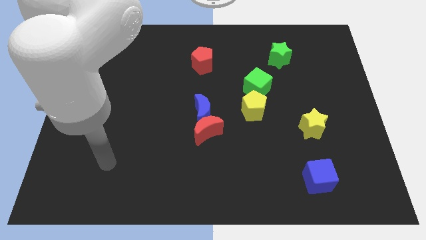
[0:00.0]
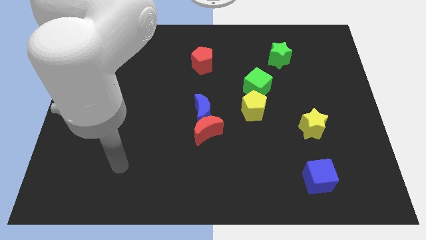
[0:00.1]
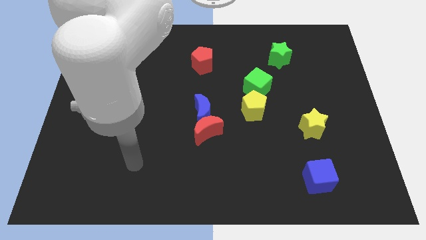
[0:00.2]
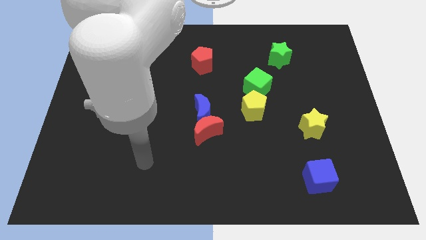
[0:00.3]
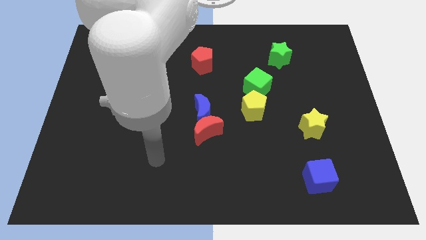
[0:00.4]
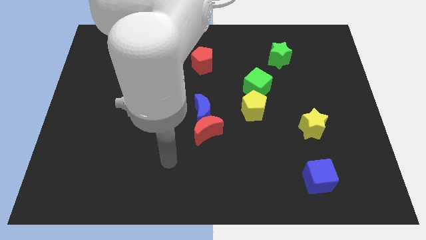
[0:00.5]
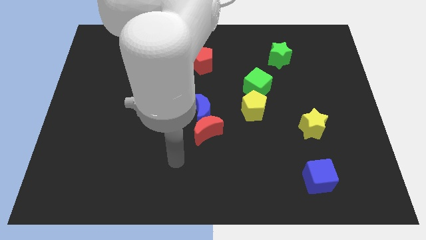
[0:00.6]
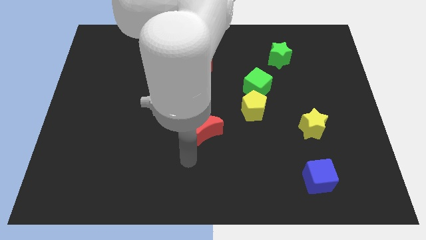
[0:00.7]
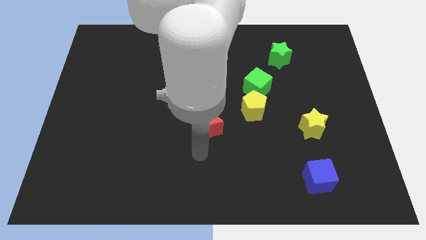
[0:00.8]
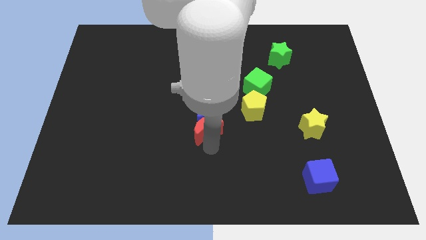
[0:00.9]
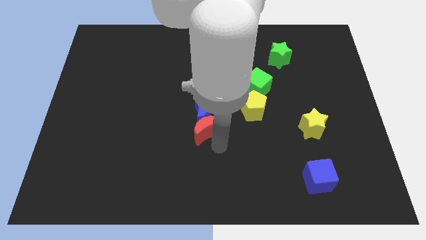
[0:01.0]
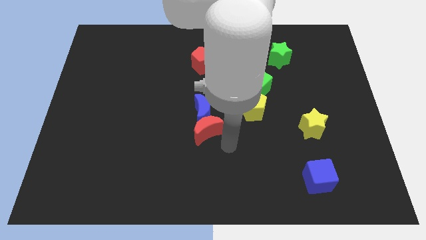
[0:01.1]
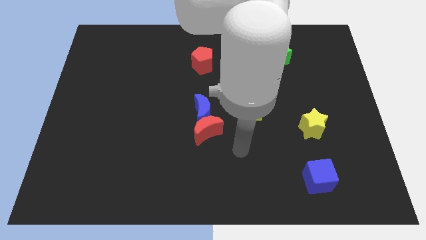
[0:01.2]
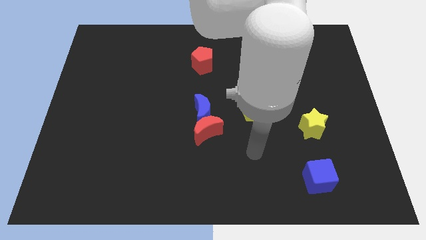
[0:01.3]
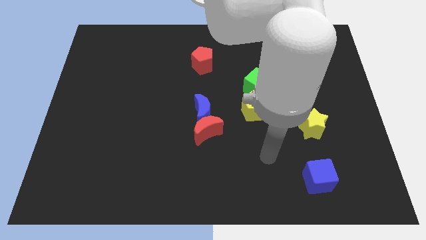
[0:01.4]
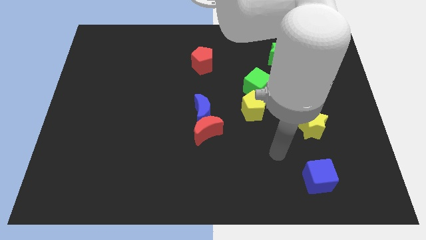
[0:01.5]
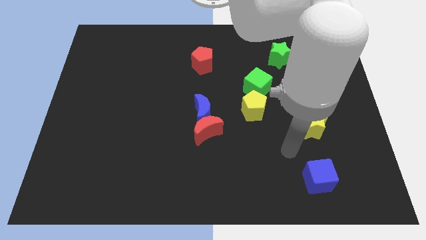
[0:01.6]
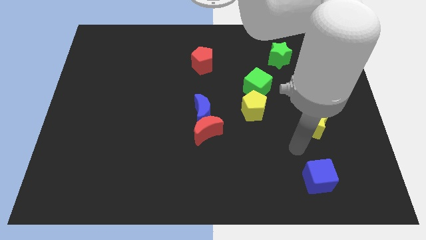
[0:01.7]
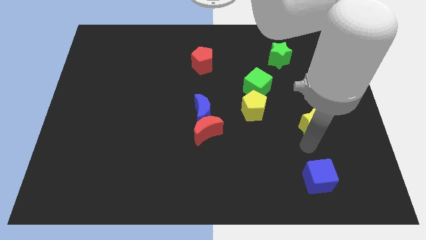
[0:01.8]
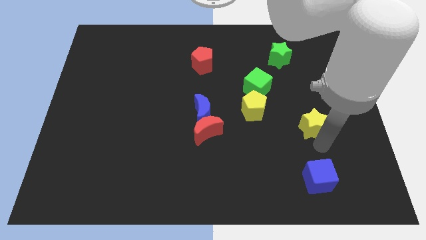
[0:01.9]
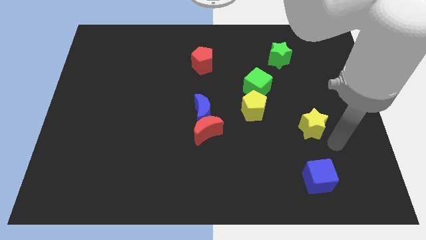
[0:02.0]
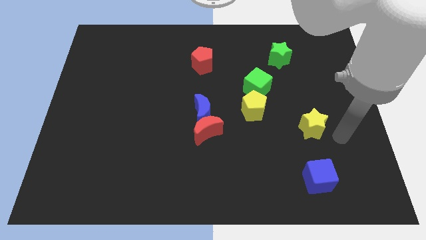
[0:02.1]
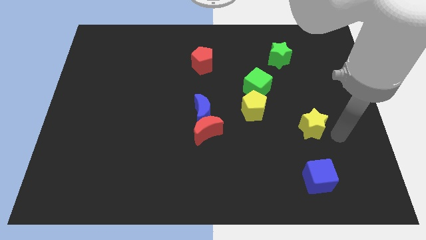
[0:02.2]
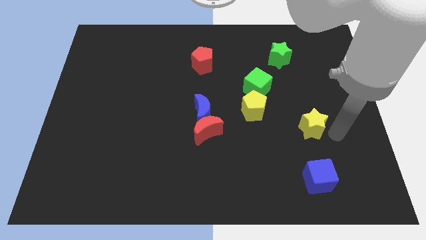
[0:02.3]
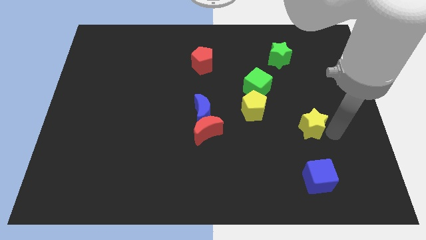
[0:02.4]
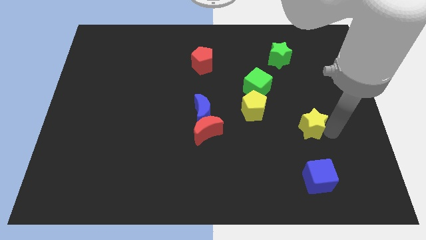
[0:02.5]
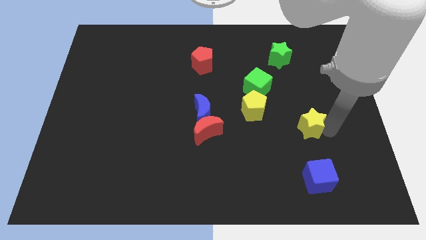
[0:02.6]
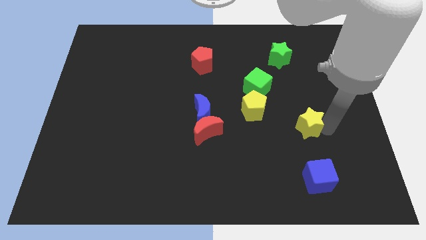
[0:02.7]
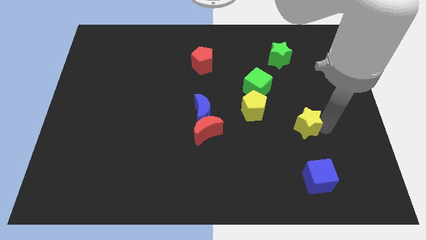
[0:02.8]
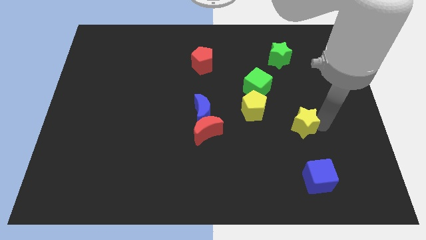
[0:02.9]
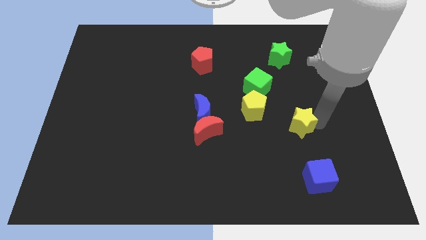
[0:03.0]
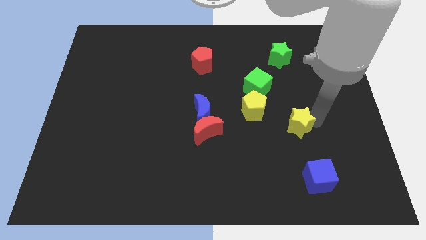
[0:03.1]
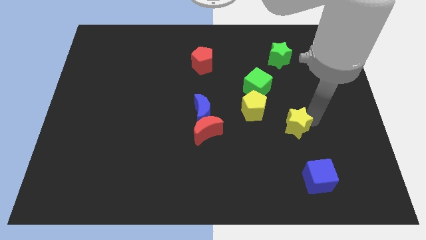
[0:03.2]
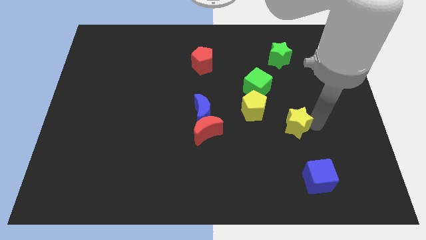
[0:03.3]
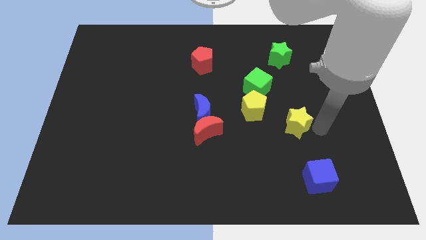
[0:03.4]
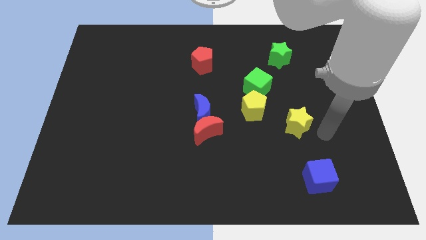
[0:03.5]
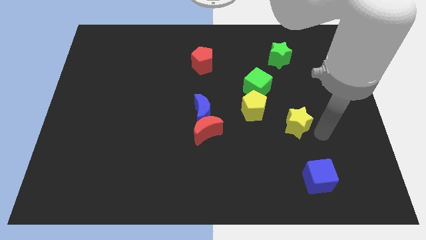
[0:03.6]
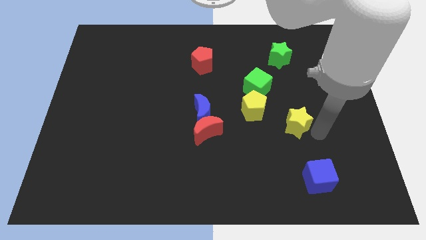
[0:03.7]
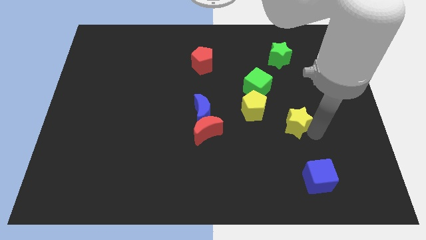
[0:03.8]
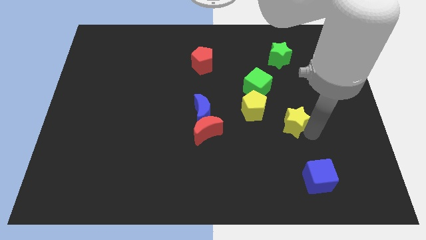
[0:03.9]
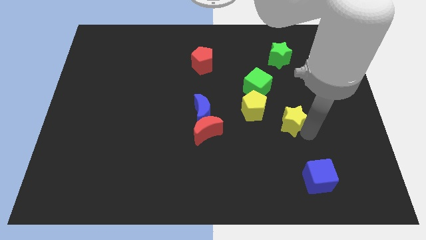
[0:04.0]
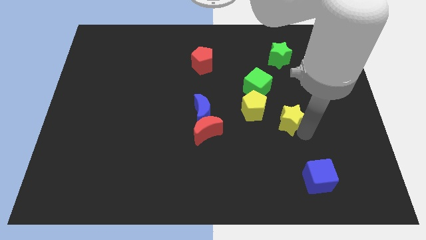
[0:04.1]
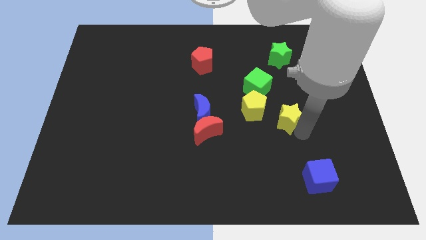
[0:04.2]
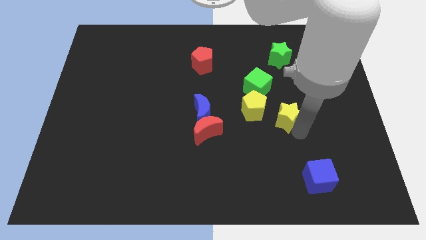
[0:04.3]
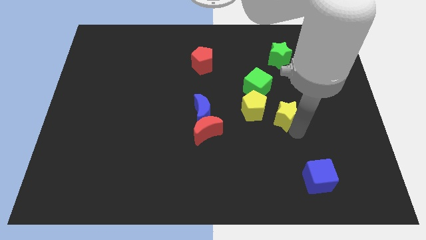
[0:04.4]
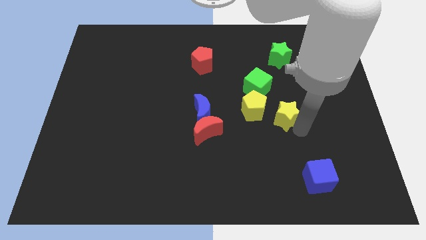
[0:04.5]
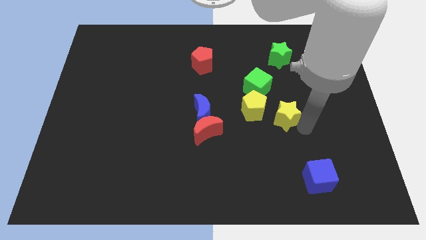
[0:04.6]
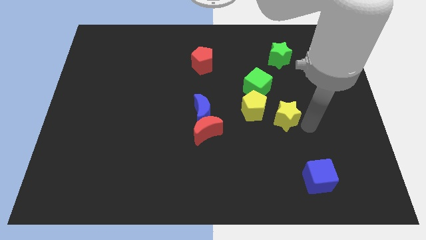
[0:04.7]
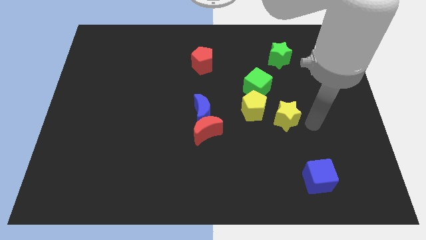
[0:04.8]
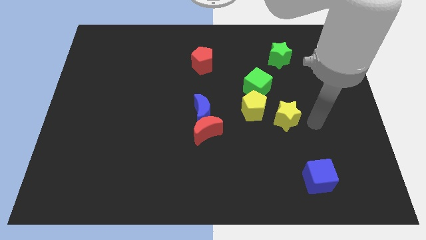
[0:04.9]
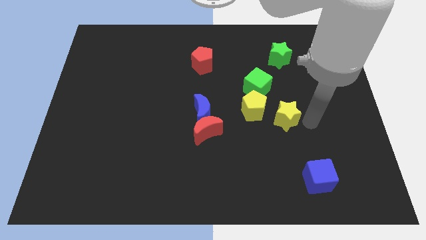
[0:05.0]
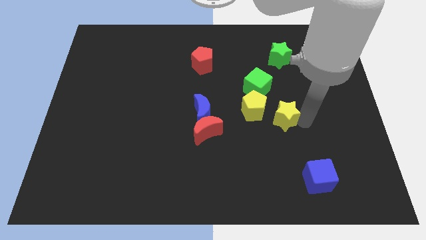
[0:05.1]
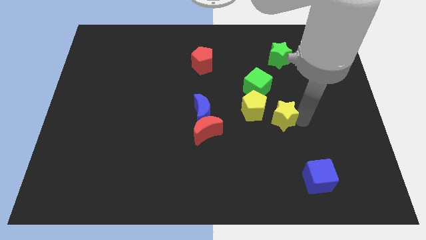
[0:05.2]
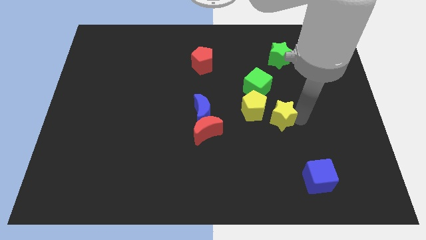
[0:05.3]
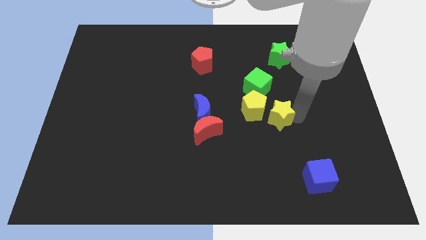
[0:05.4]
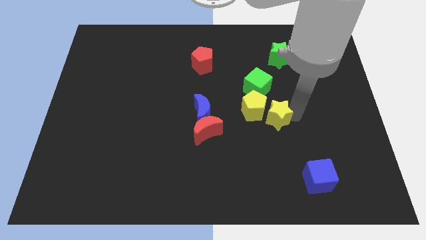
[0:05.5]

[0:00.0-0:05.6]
put the yellow star close to the yellow pentagon

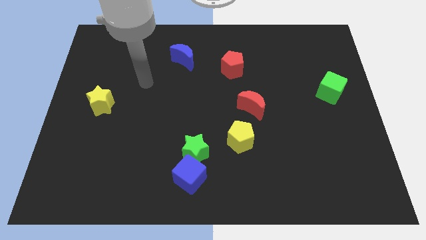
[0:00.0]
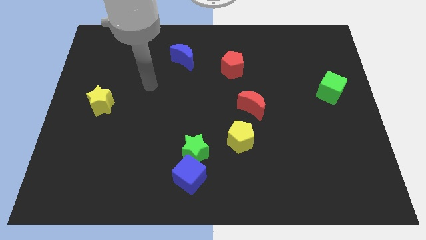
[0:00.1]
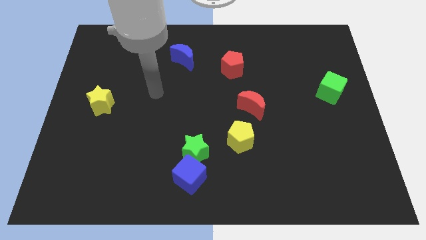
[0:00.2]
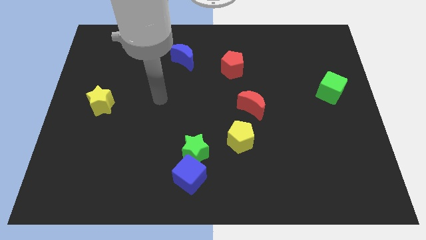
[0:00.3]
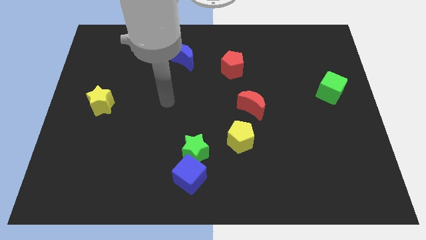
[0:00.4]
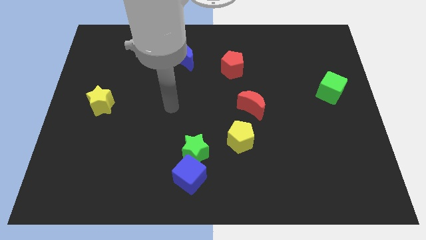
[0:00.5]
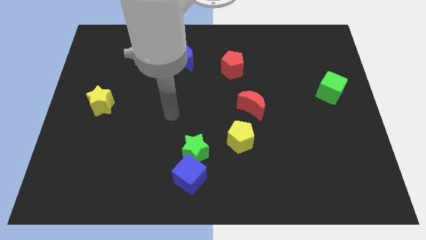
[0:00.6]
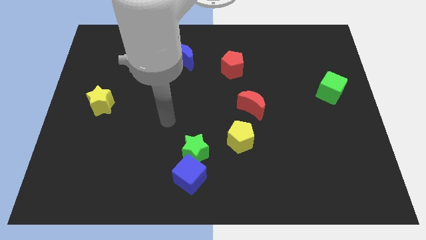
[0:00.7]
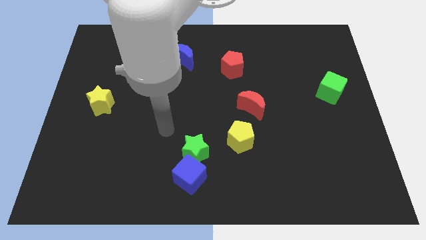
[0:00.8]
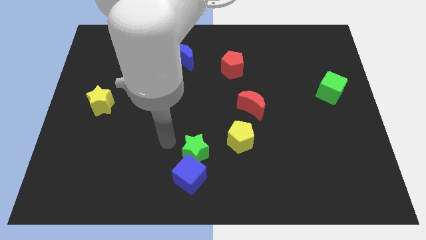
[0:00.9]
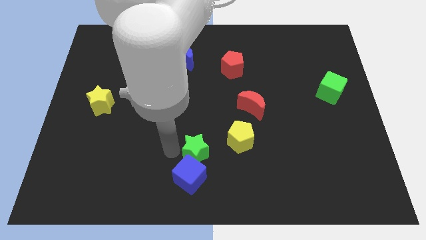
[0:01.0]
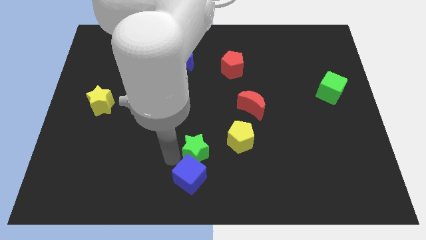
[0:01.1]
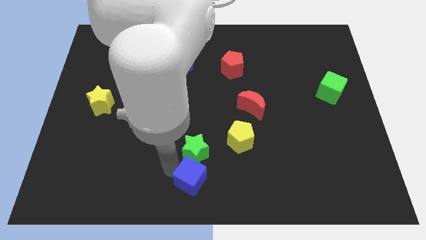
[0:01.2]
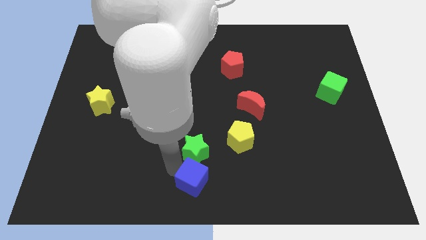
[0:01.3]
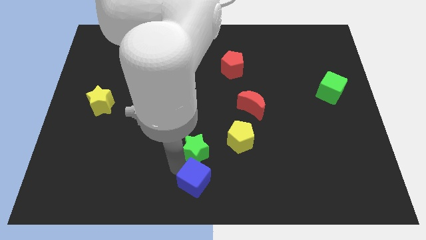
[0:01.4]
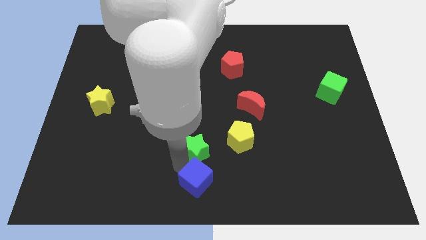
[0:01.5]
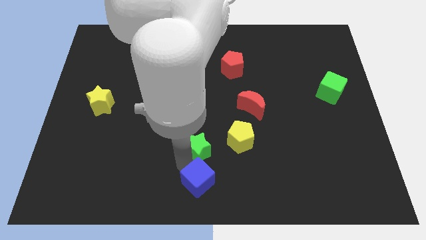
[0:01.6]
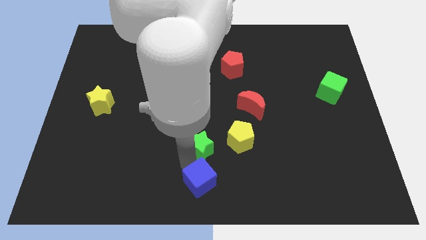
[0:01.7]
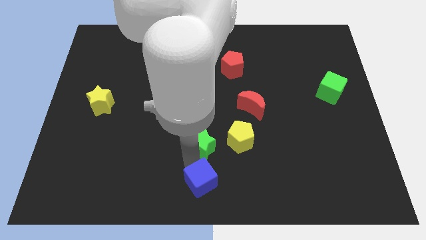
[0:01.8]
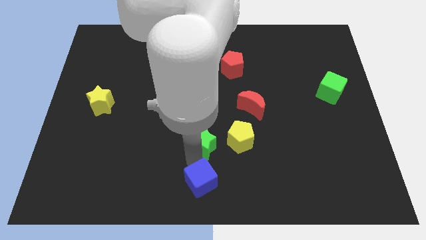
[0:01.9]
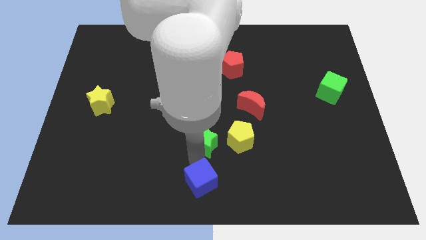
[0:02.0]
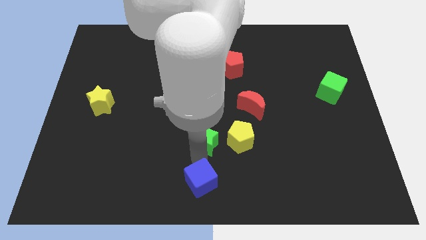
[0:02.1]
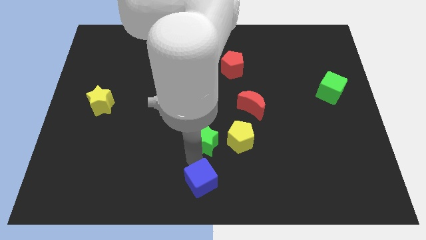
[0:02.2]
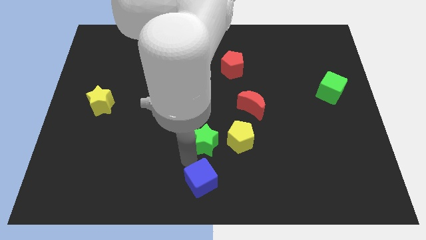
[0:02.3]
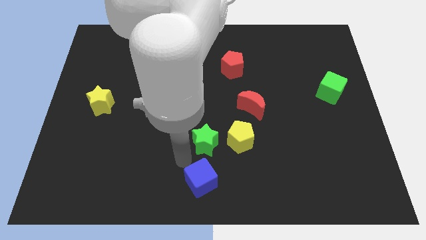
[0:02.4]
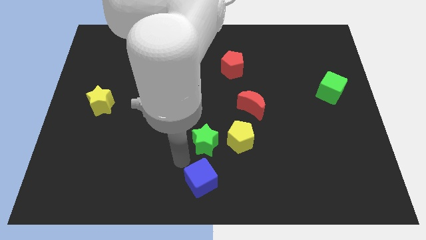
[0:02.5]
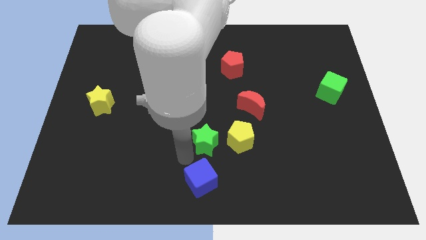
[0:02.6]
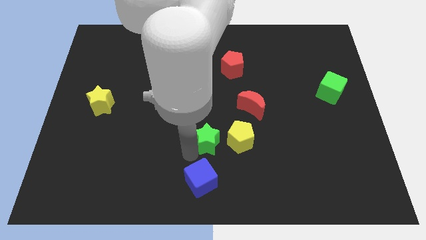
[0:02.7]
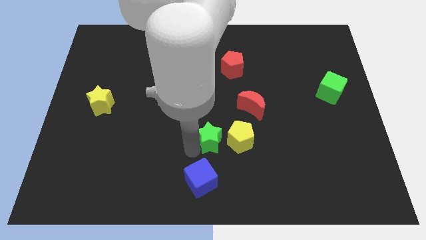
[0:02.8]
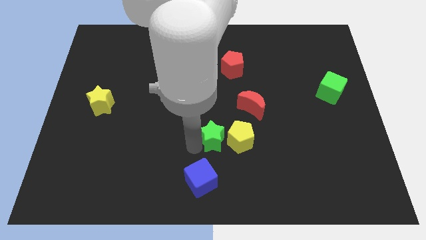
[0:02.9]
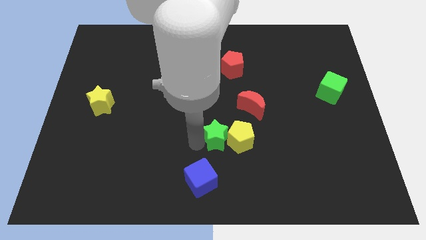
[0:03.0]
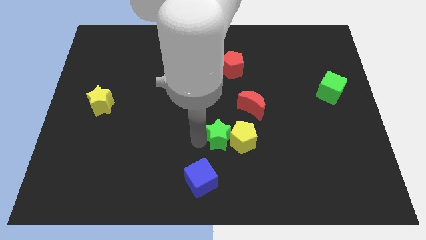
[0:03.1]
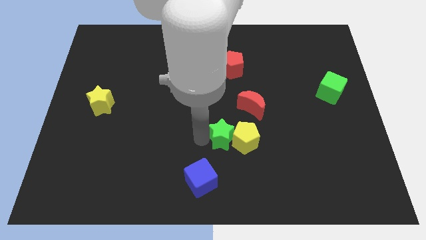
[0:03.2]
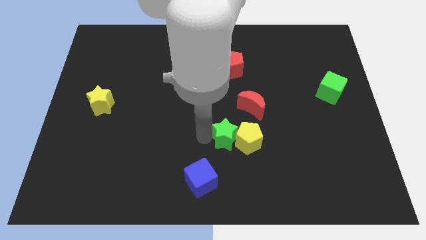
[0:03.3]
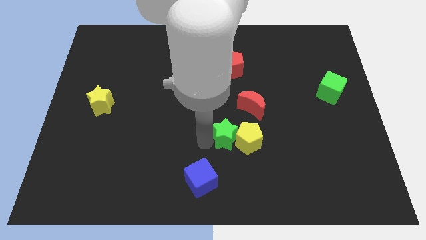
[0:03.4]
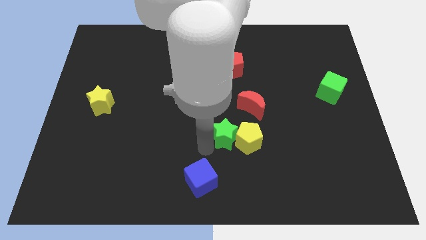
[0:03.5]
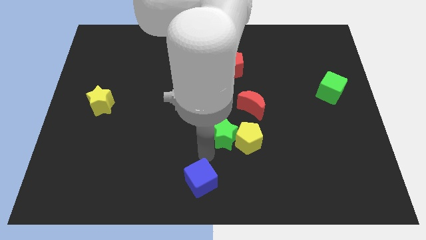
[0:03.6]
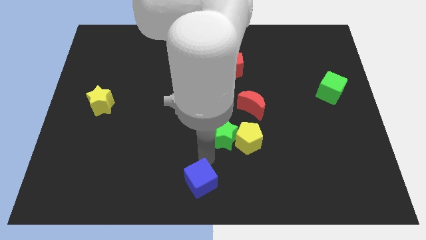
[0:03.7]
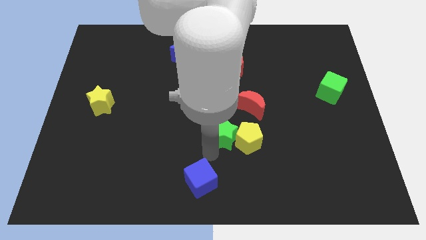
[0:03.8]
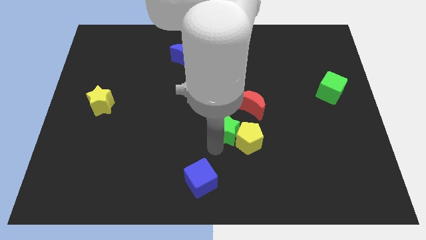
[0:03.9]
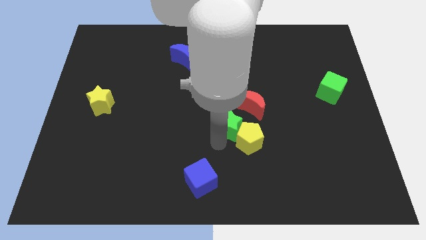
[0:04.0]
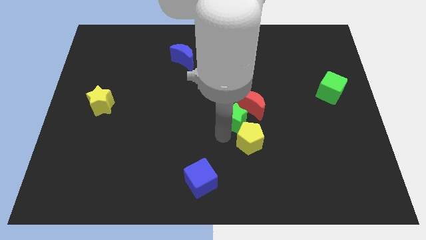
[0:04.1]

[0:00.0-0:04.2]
slide the green star to the red moon
